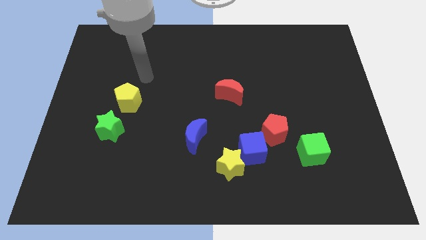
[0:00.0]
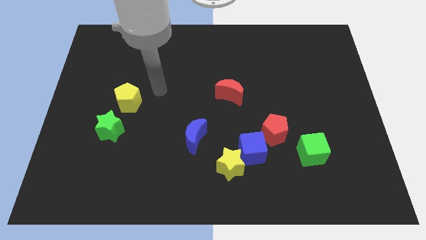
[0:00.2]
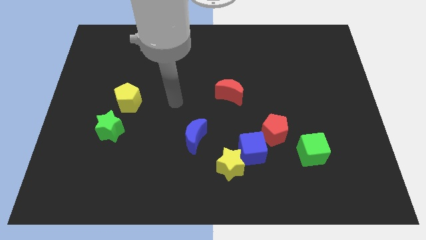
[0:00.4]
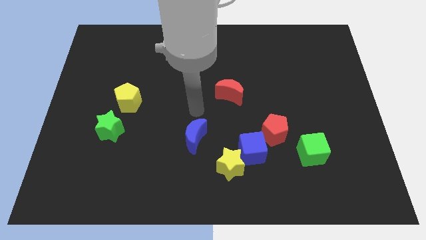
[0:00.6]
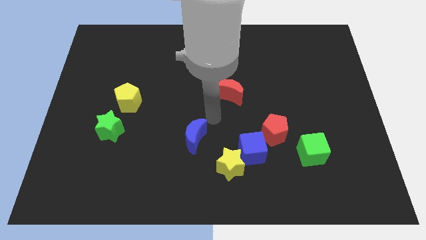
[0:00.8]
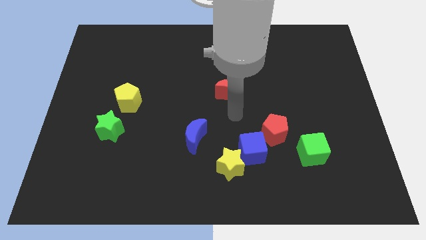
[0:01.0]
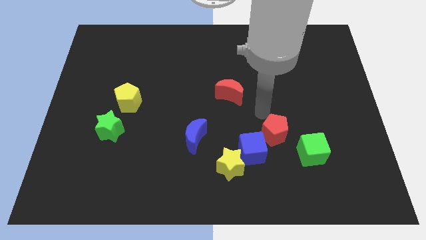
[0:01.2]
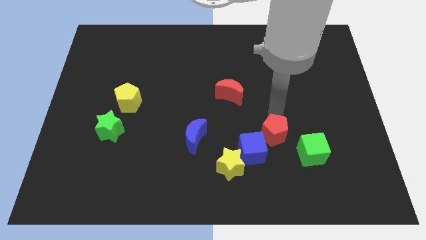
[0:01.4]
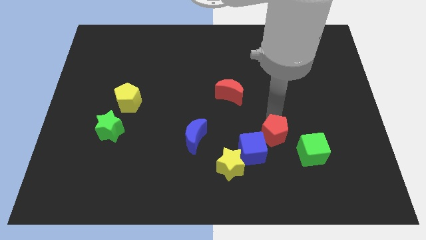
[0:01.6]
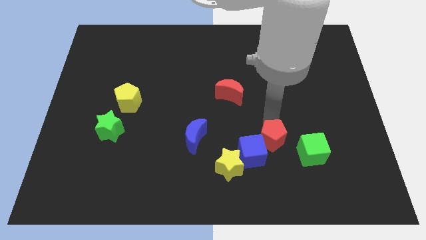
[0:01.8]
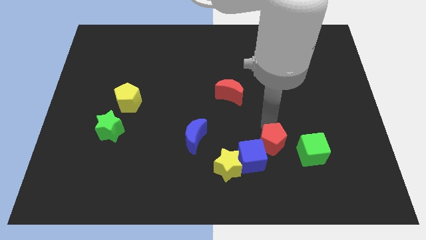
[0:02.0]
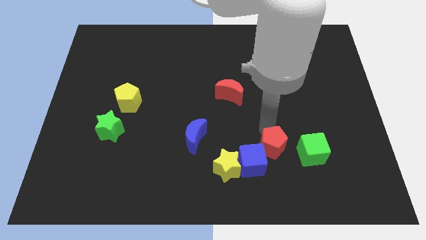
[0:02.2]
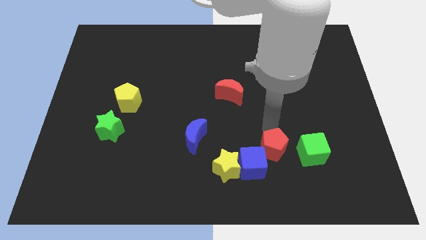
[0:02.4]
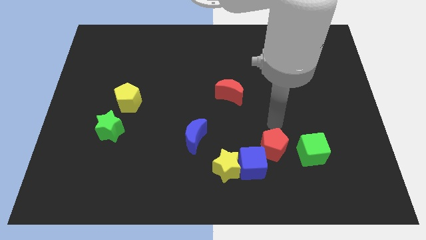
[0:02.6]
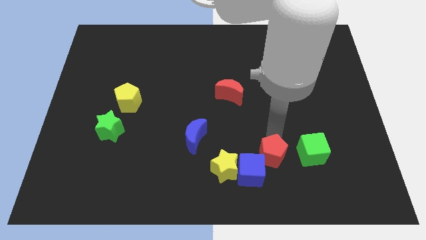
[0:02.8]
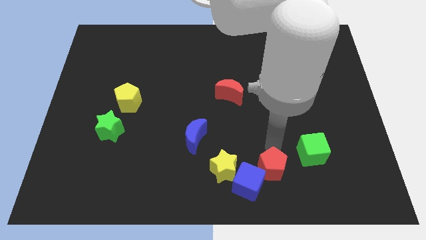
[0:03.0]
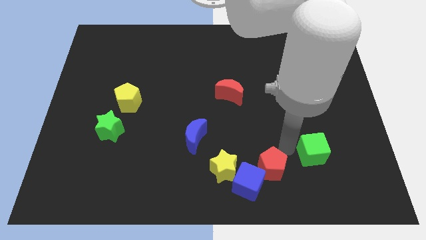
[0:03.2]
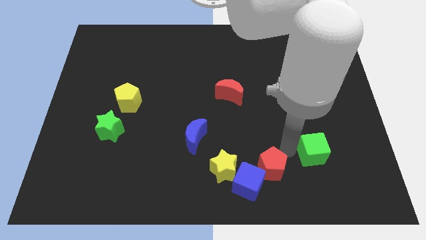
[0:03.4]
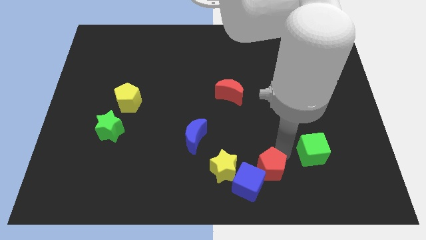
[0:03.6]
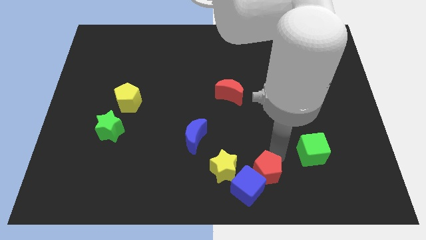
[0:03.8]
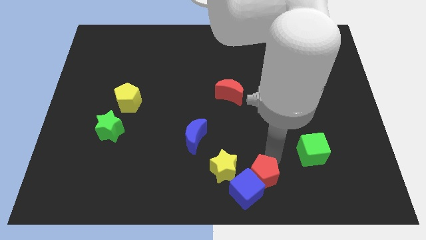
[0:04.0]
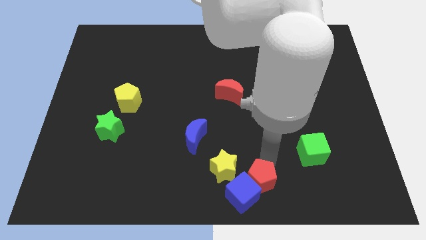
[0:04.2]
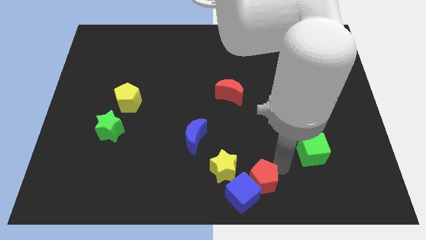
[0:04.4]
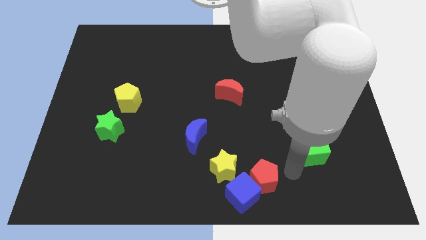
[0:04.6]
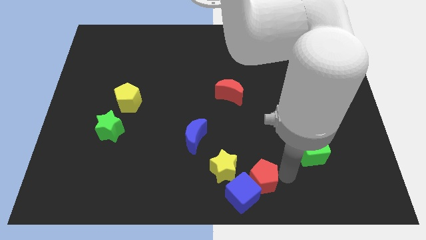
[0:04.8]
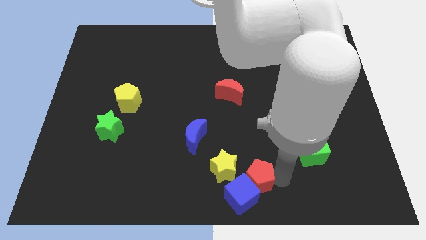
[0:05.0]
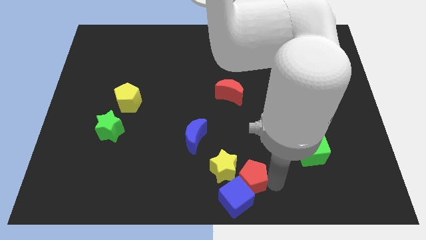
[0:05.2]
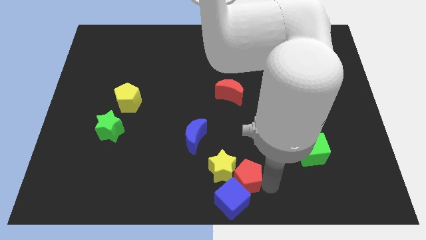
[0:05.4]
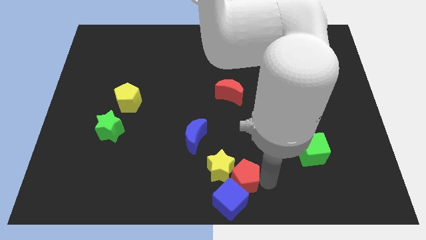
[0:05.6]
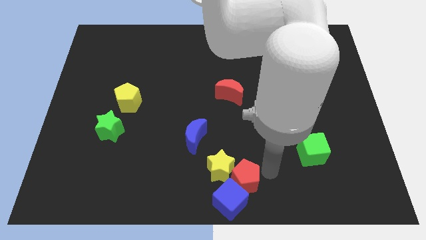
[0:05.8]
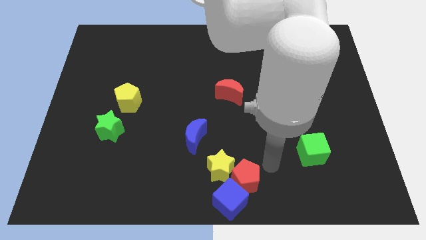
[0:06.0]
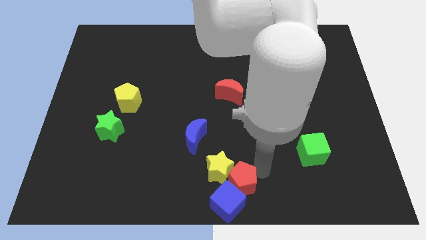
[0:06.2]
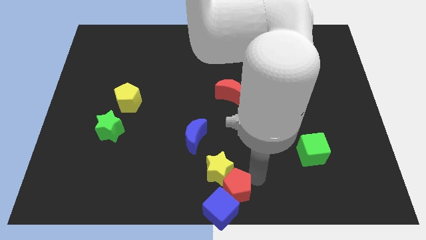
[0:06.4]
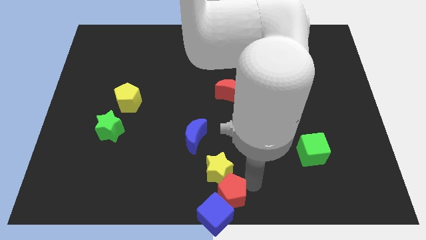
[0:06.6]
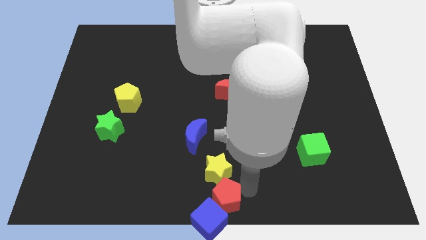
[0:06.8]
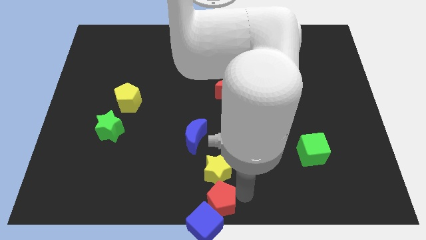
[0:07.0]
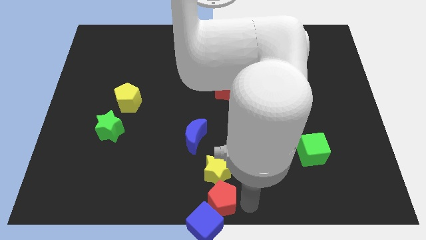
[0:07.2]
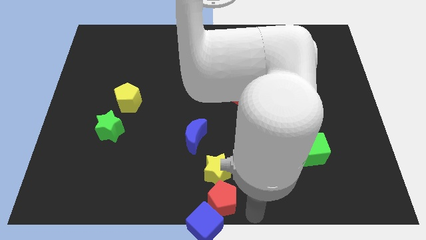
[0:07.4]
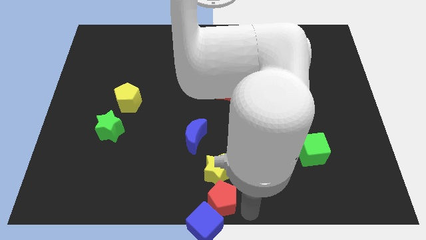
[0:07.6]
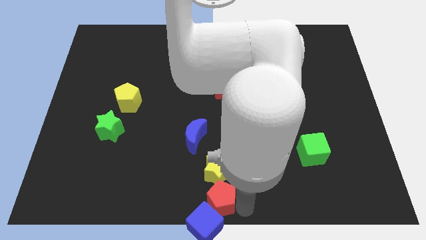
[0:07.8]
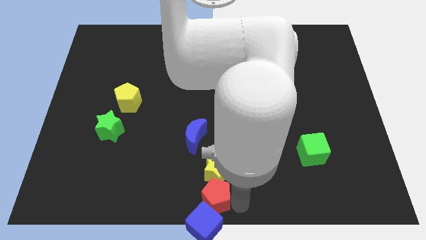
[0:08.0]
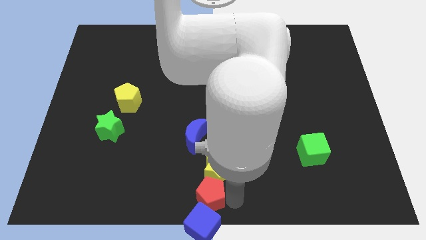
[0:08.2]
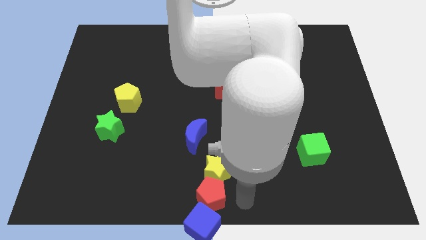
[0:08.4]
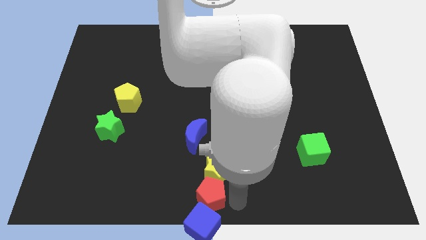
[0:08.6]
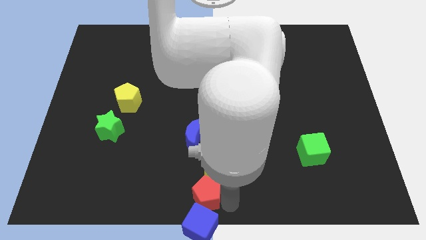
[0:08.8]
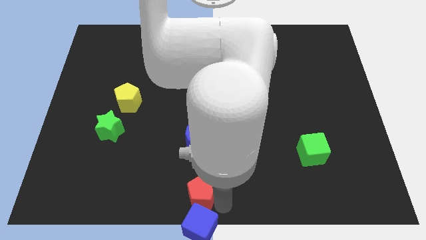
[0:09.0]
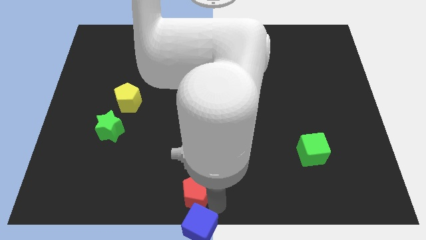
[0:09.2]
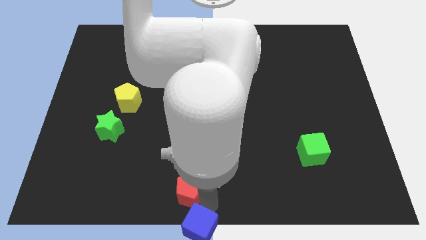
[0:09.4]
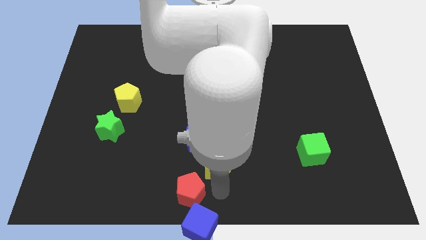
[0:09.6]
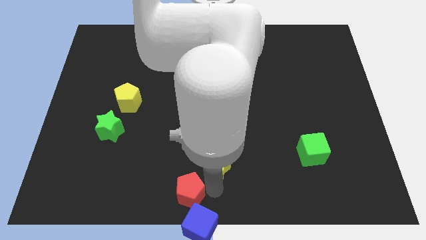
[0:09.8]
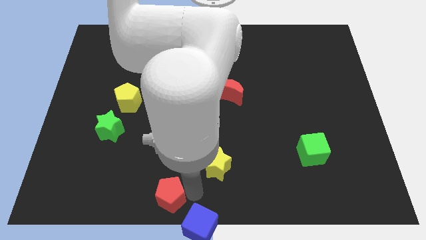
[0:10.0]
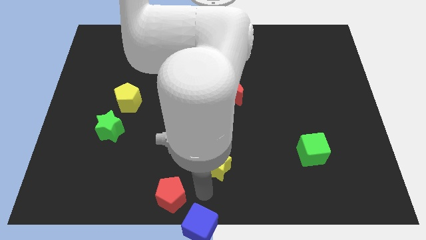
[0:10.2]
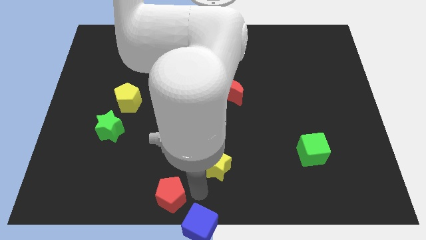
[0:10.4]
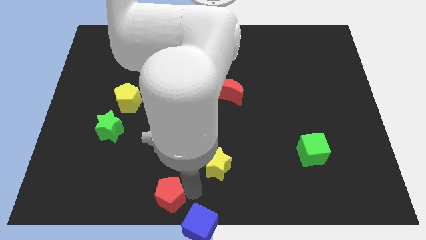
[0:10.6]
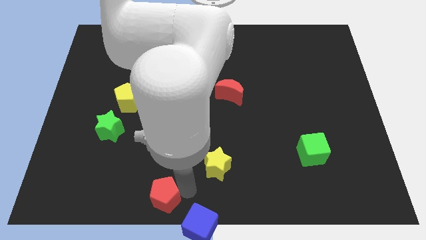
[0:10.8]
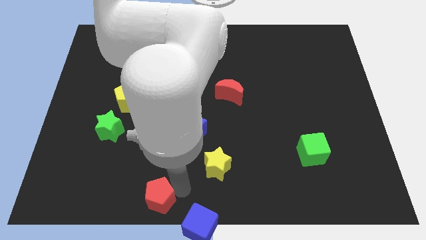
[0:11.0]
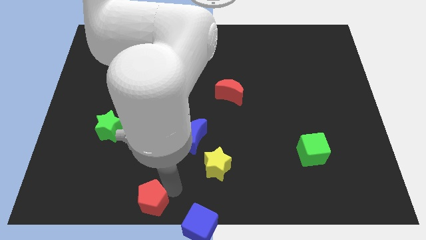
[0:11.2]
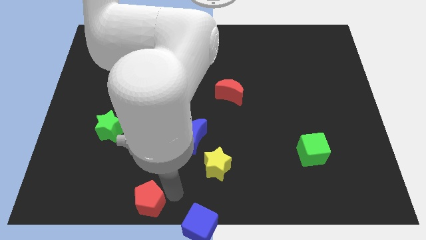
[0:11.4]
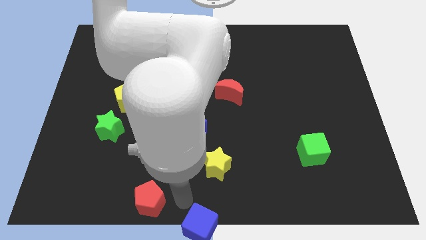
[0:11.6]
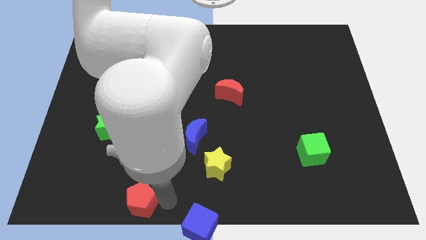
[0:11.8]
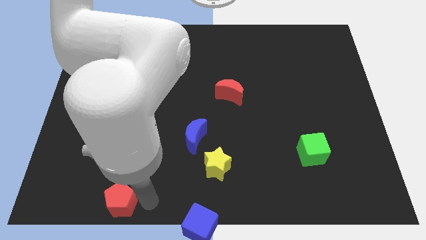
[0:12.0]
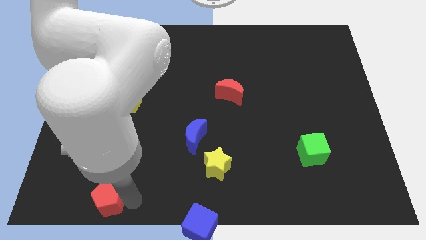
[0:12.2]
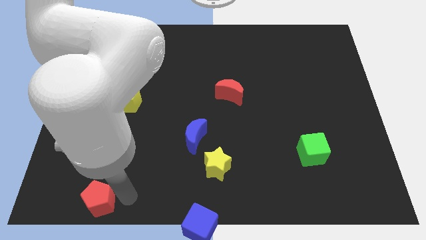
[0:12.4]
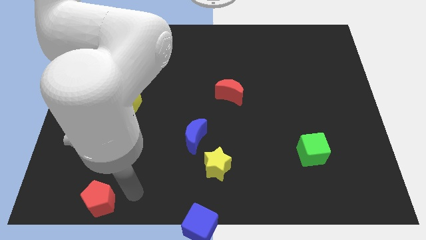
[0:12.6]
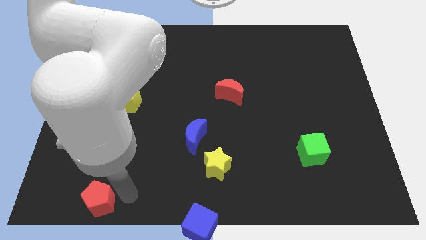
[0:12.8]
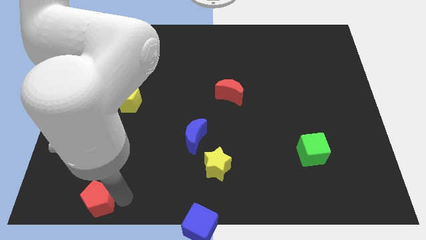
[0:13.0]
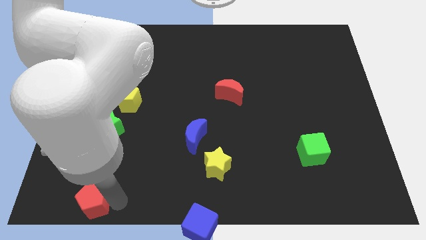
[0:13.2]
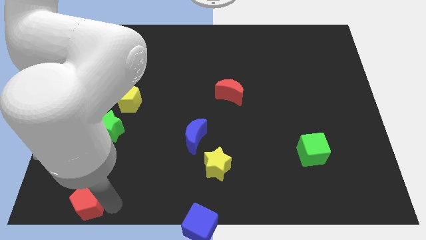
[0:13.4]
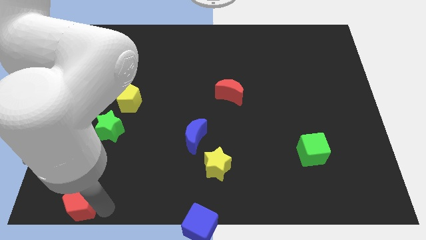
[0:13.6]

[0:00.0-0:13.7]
put the red pentagon to the lower left corner

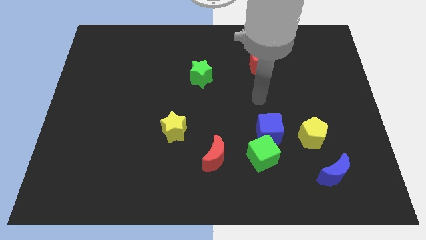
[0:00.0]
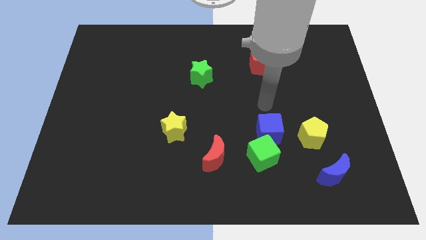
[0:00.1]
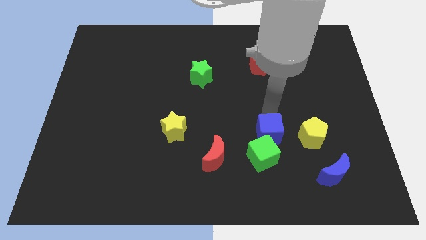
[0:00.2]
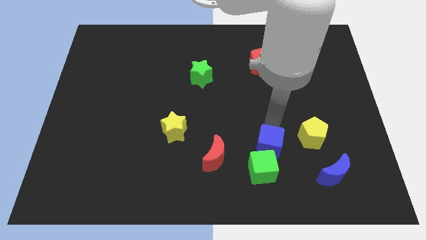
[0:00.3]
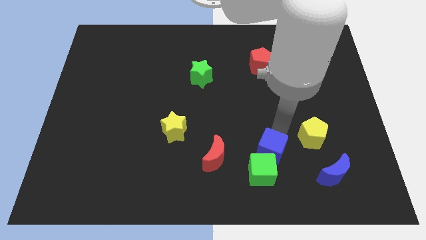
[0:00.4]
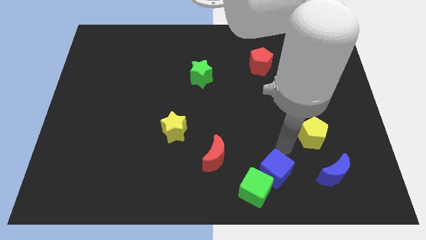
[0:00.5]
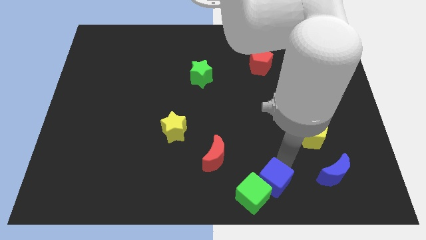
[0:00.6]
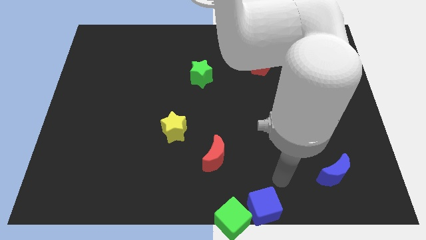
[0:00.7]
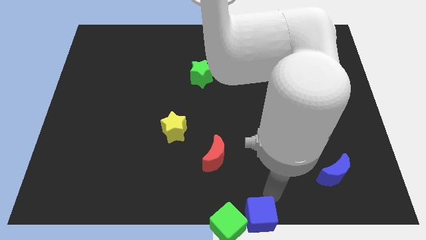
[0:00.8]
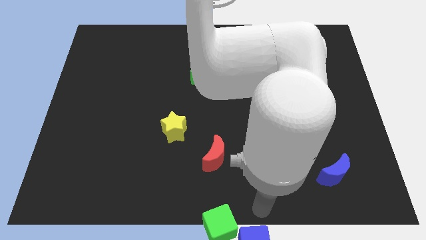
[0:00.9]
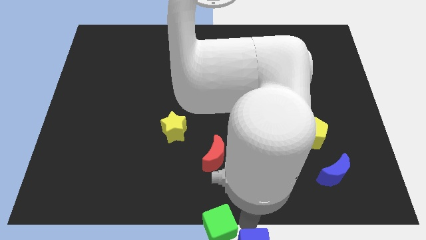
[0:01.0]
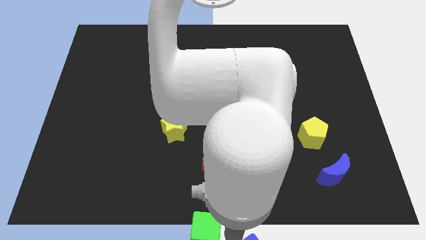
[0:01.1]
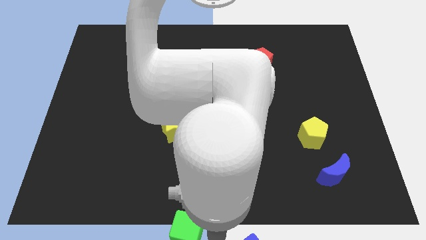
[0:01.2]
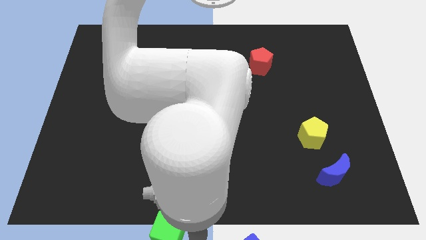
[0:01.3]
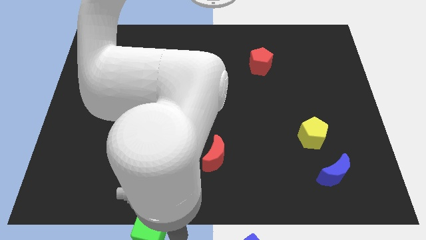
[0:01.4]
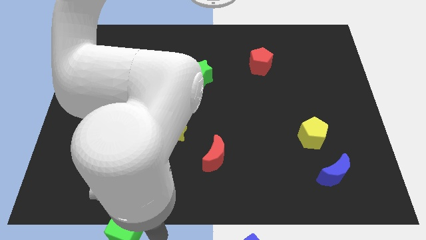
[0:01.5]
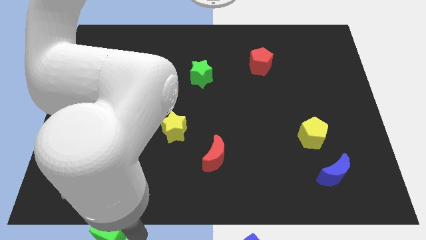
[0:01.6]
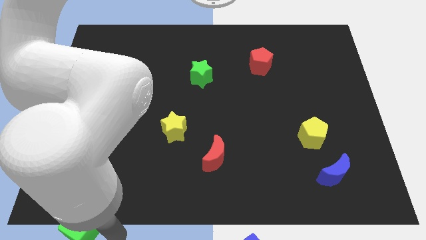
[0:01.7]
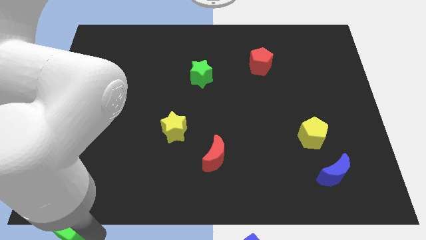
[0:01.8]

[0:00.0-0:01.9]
move the green cube to the bottom left corner
